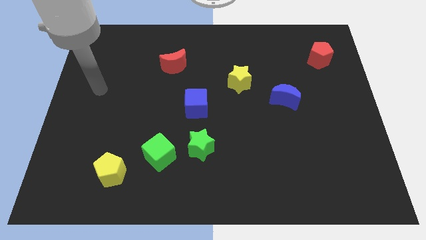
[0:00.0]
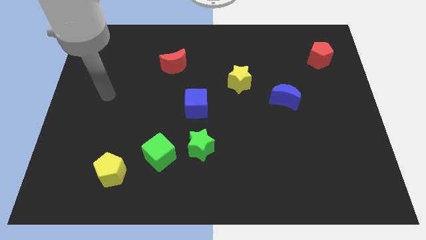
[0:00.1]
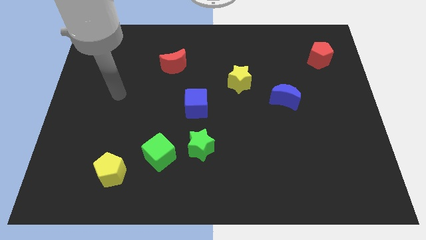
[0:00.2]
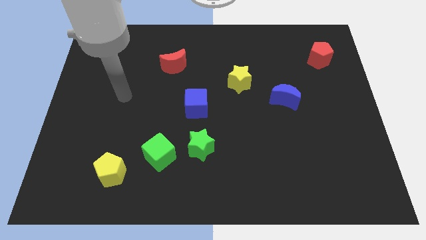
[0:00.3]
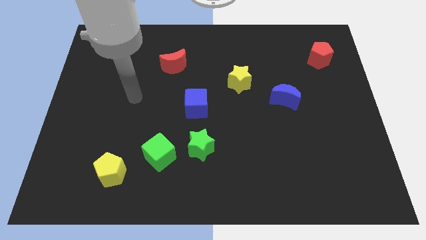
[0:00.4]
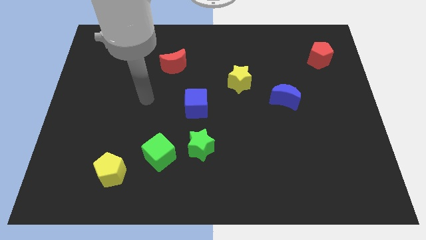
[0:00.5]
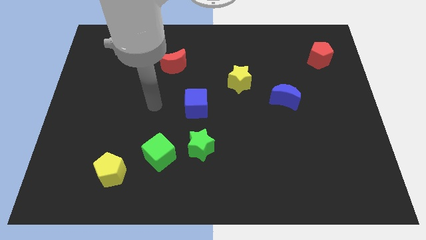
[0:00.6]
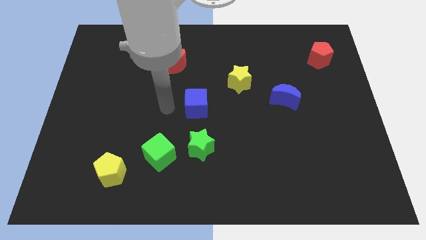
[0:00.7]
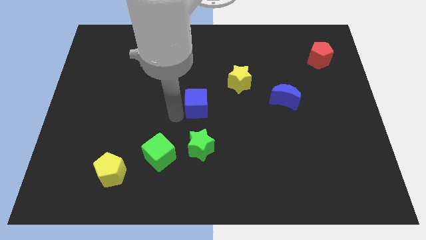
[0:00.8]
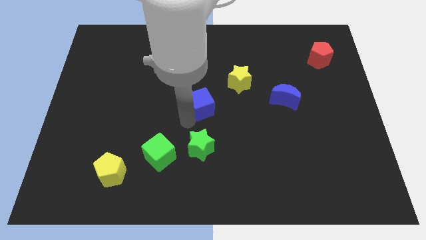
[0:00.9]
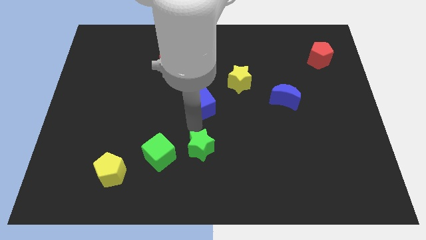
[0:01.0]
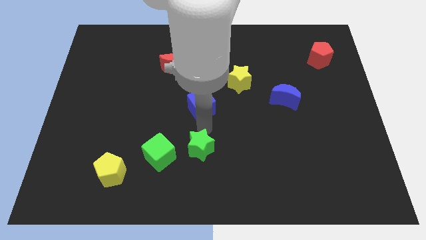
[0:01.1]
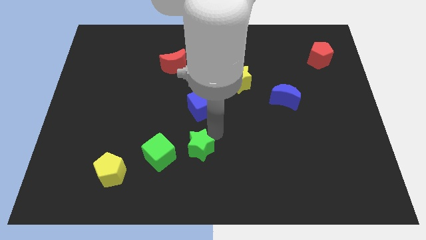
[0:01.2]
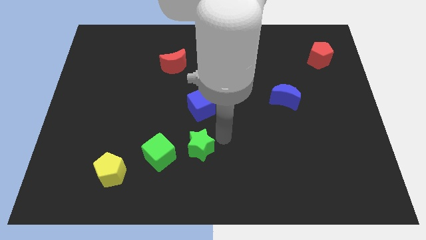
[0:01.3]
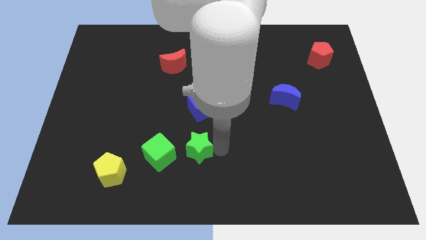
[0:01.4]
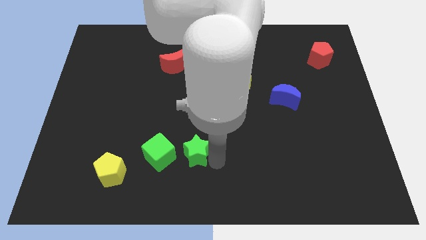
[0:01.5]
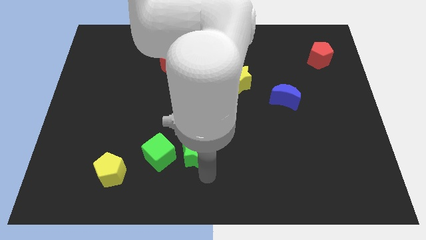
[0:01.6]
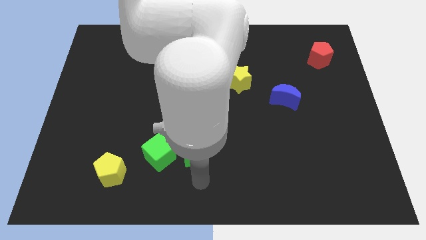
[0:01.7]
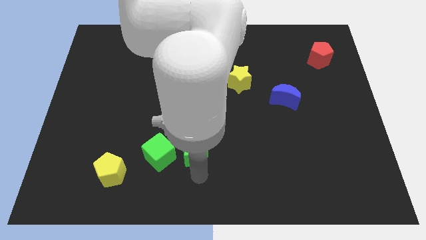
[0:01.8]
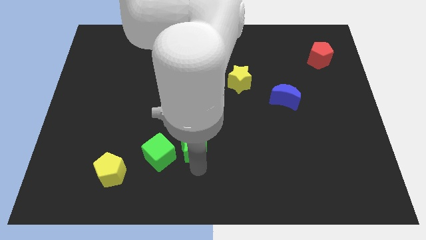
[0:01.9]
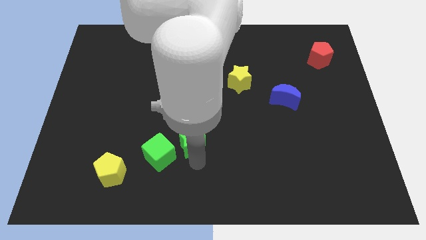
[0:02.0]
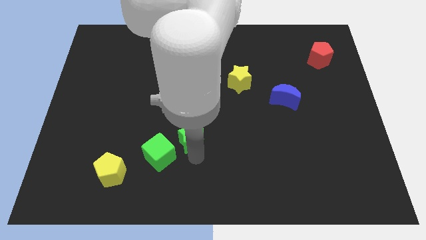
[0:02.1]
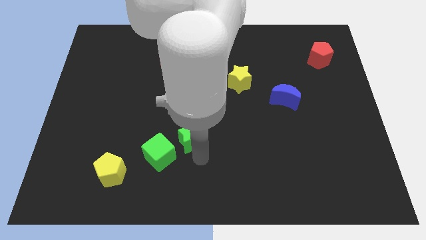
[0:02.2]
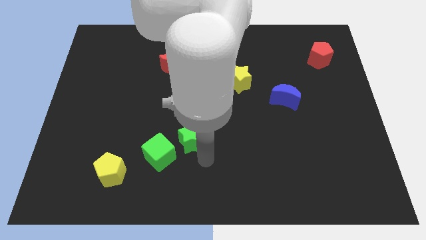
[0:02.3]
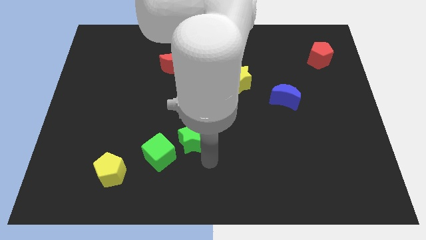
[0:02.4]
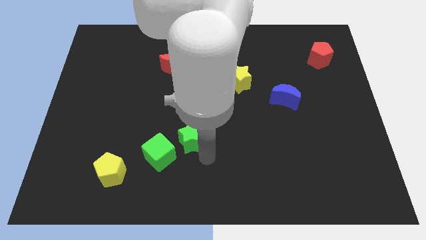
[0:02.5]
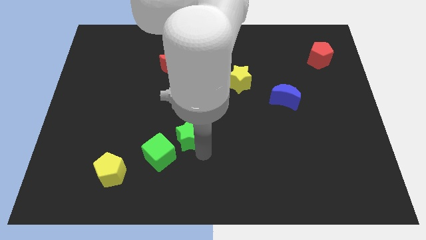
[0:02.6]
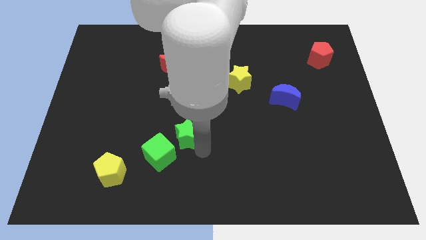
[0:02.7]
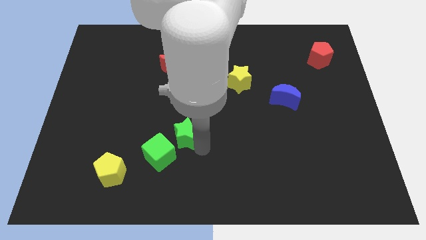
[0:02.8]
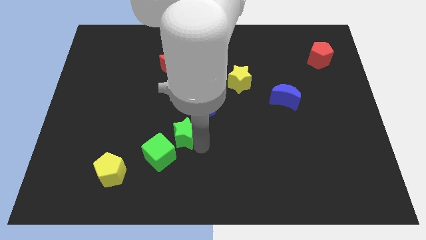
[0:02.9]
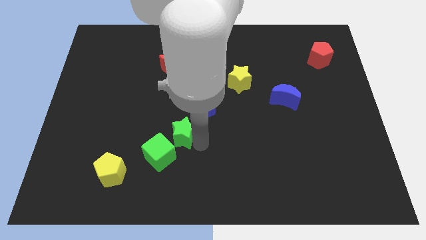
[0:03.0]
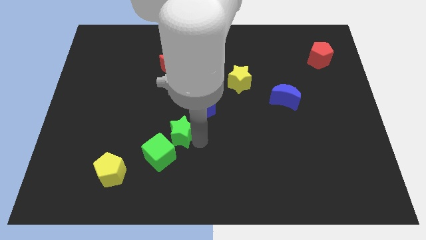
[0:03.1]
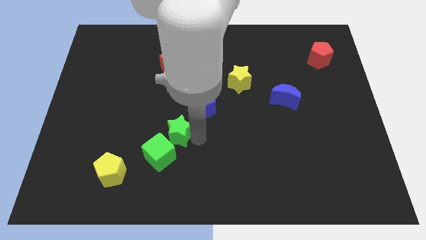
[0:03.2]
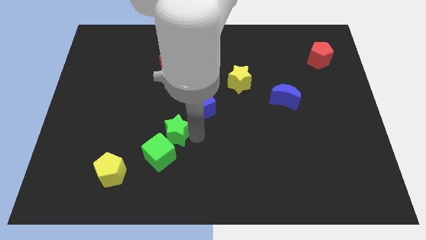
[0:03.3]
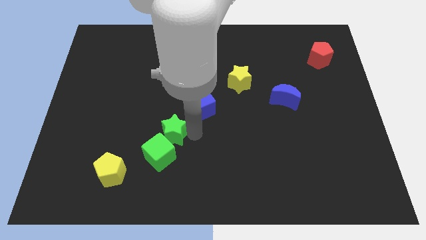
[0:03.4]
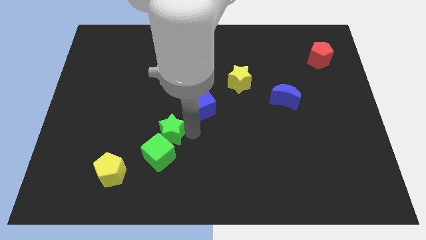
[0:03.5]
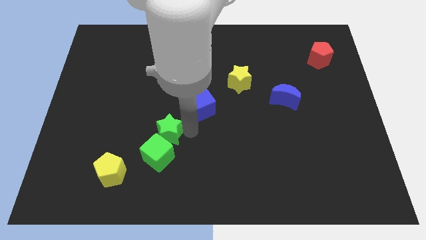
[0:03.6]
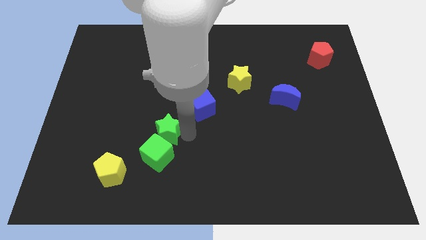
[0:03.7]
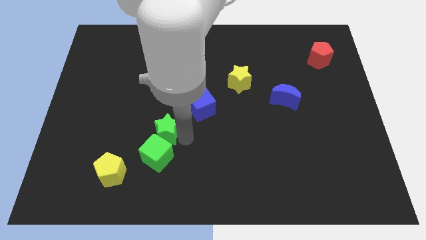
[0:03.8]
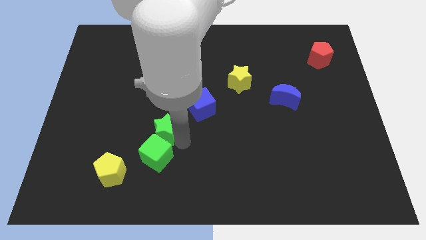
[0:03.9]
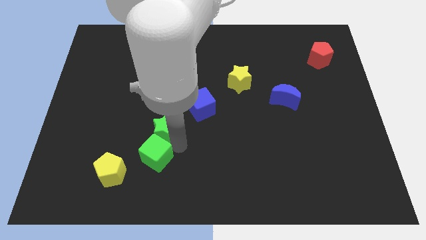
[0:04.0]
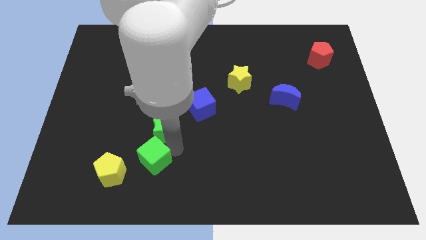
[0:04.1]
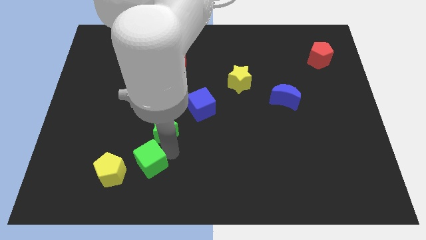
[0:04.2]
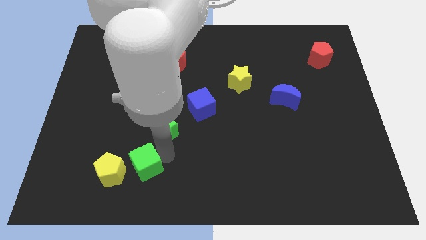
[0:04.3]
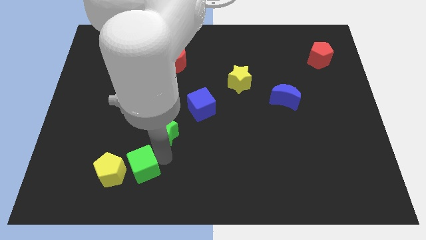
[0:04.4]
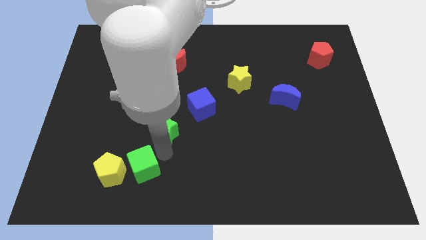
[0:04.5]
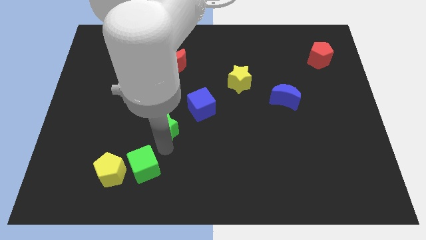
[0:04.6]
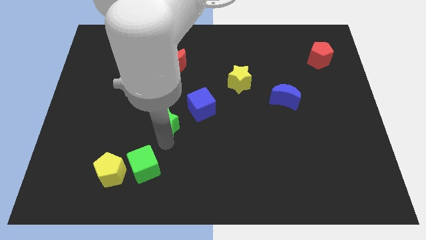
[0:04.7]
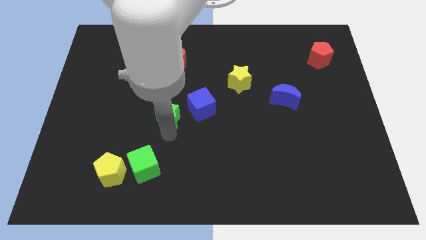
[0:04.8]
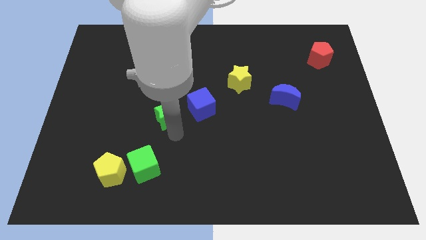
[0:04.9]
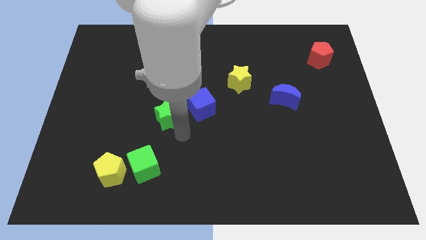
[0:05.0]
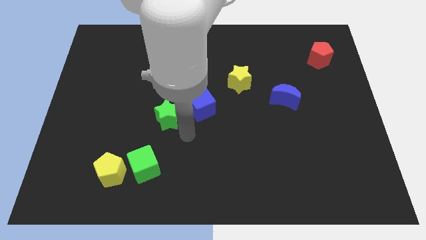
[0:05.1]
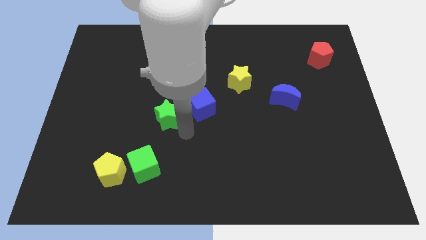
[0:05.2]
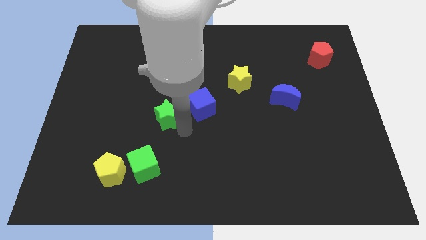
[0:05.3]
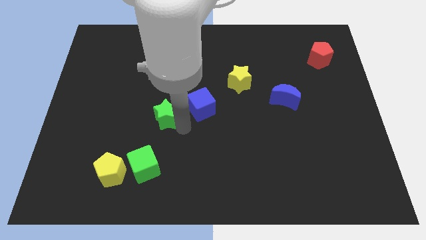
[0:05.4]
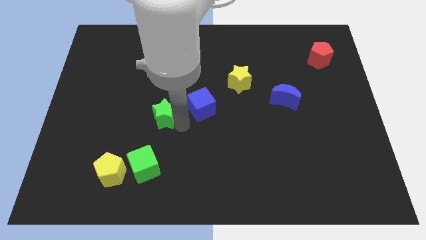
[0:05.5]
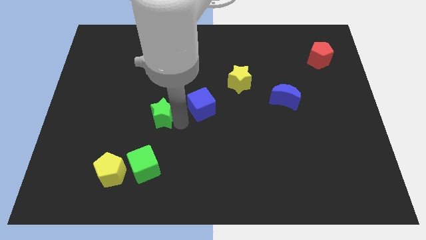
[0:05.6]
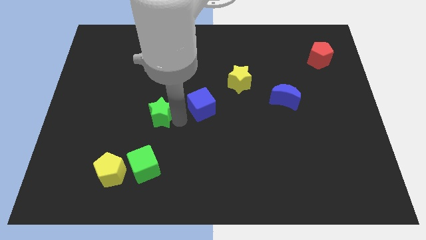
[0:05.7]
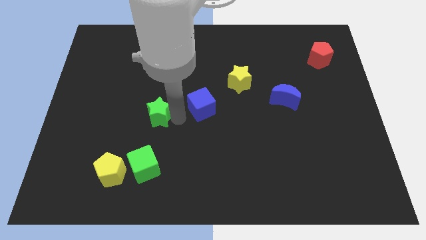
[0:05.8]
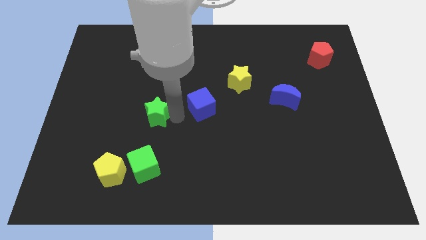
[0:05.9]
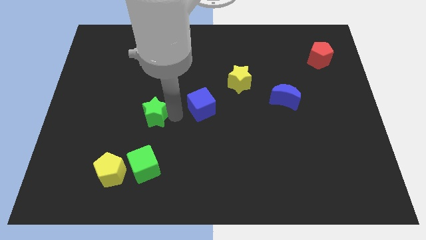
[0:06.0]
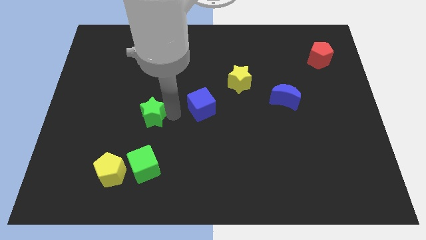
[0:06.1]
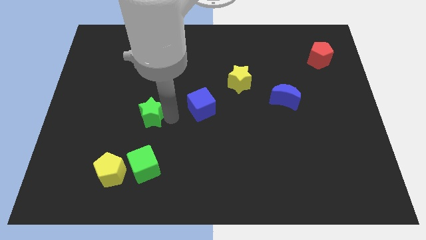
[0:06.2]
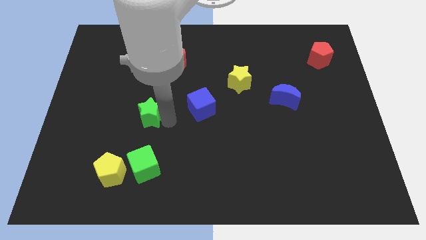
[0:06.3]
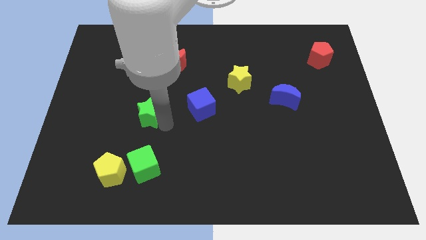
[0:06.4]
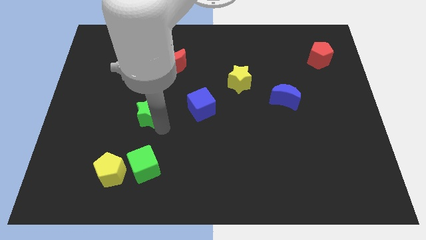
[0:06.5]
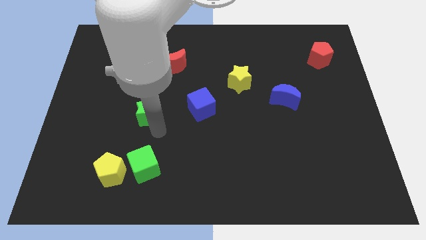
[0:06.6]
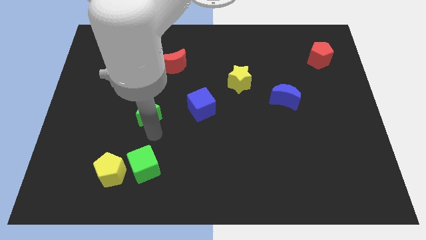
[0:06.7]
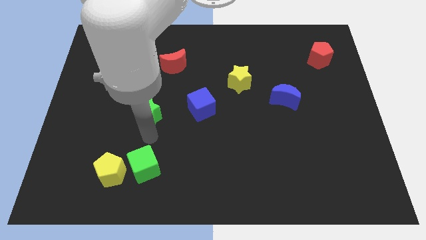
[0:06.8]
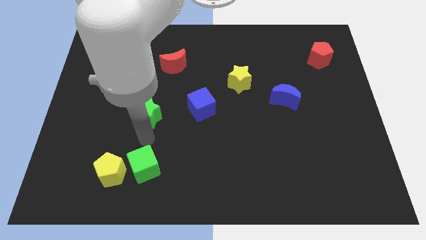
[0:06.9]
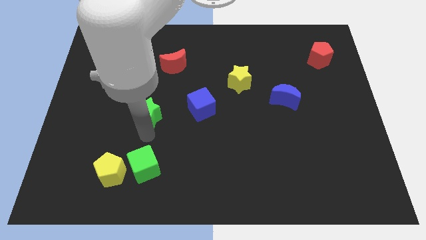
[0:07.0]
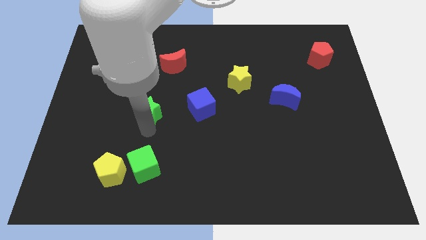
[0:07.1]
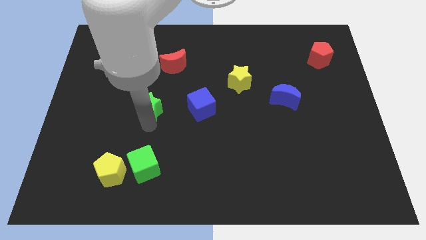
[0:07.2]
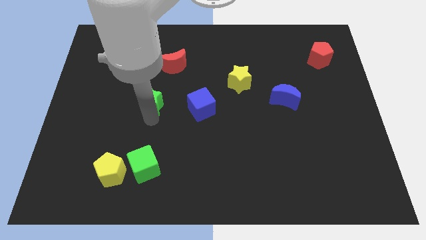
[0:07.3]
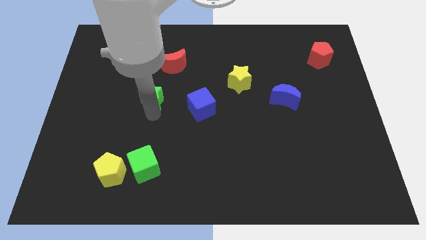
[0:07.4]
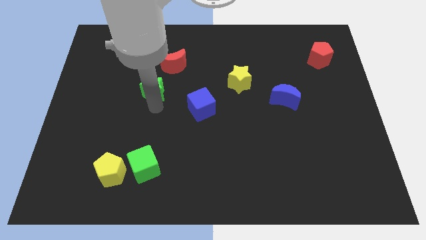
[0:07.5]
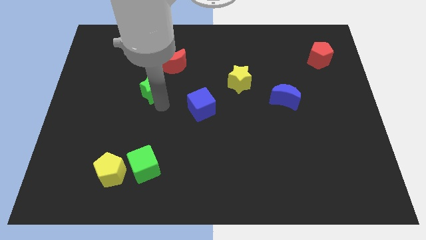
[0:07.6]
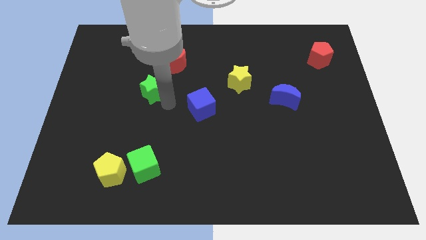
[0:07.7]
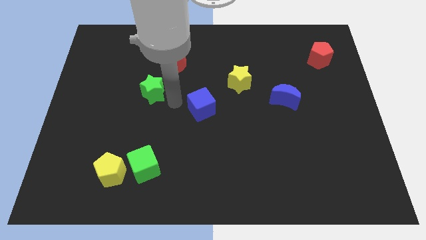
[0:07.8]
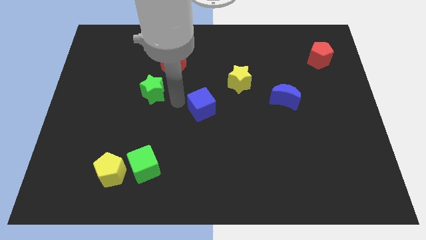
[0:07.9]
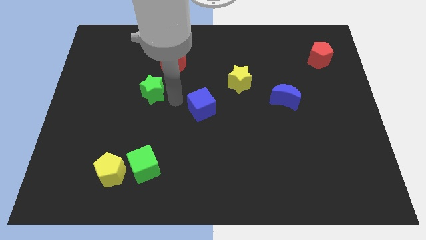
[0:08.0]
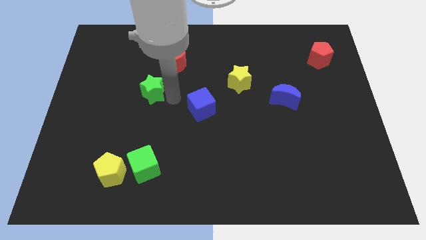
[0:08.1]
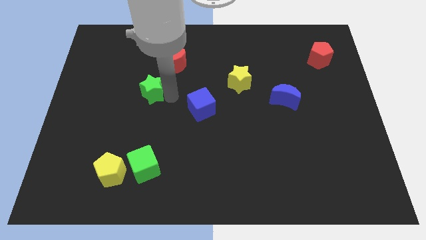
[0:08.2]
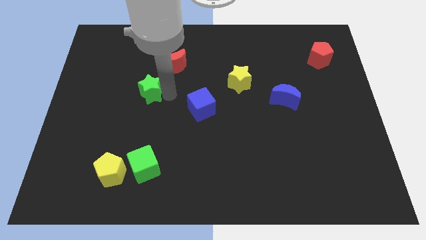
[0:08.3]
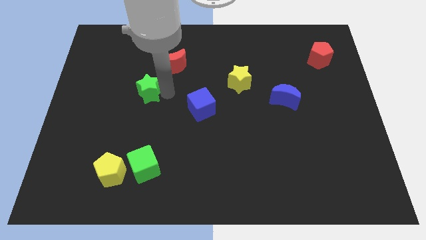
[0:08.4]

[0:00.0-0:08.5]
move the green star upwards and then left
